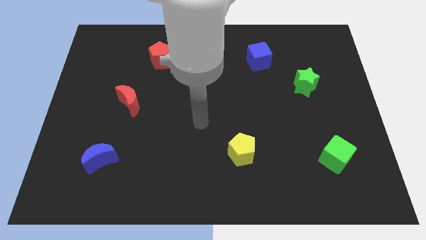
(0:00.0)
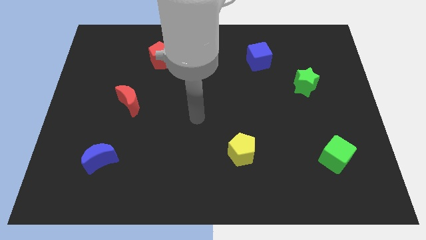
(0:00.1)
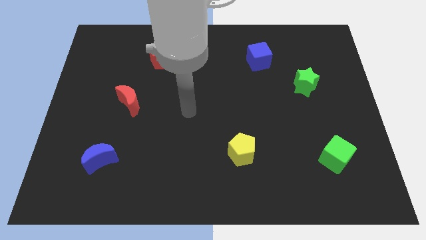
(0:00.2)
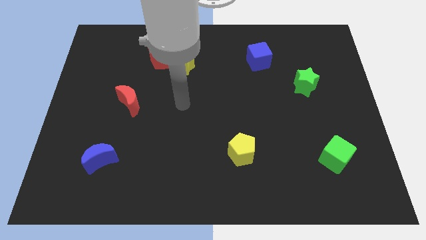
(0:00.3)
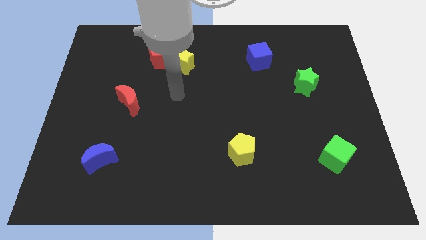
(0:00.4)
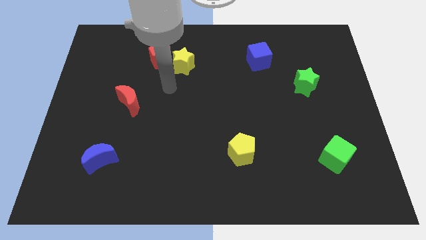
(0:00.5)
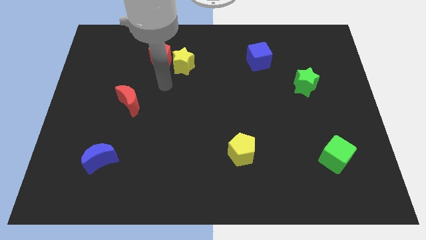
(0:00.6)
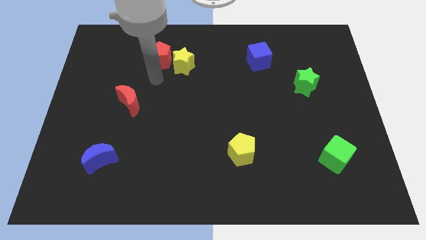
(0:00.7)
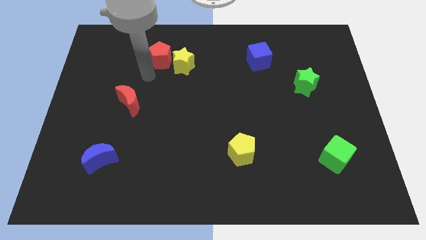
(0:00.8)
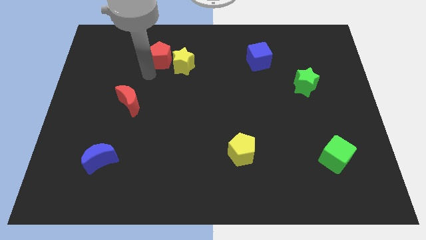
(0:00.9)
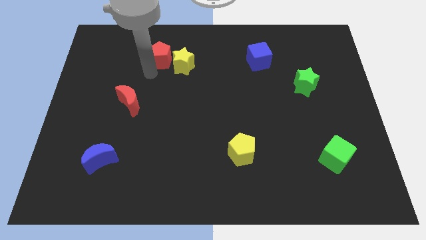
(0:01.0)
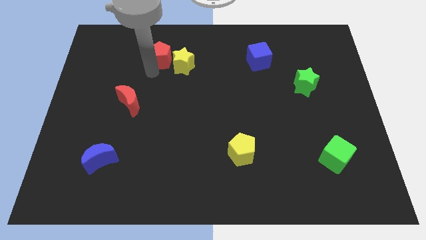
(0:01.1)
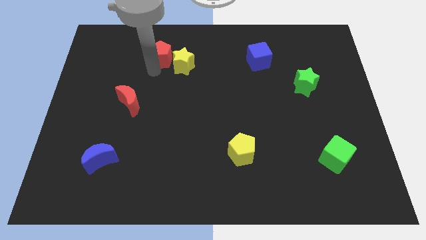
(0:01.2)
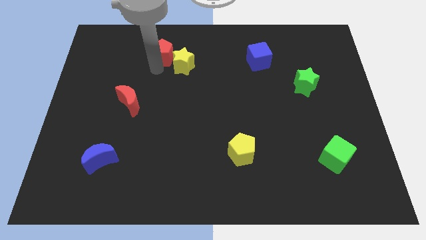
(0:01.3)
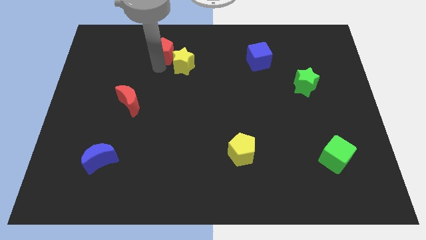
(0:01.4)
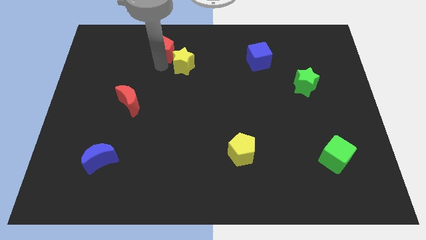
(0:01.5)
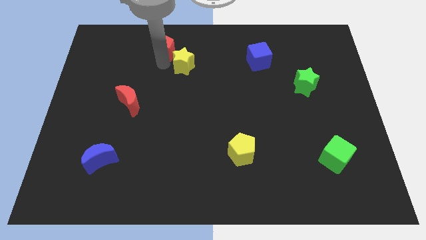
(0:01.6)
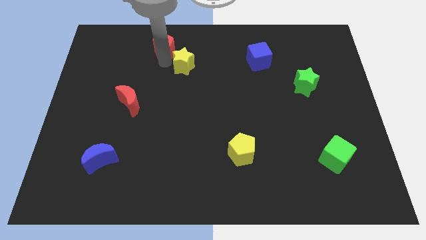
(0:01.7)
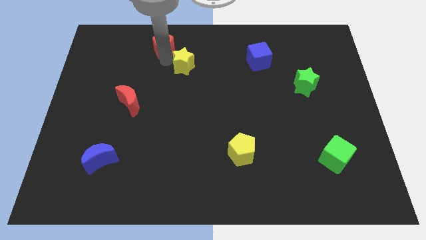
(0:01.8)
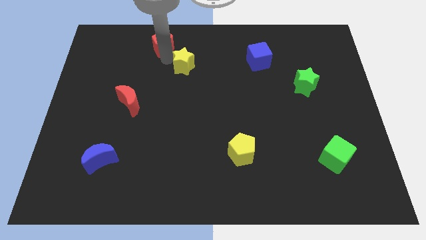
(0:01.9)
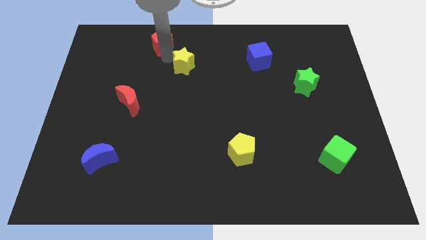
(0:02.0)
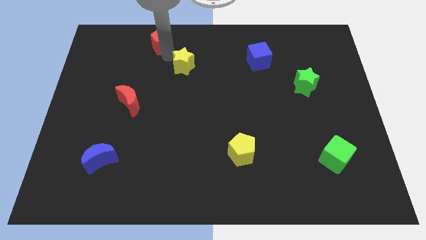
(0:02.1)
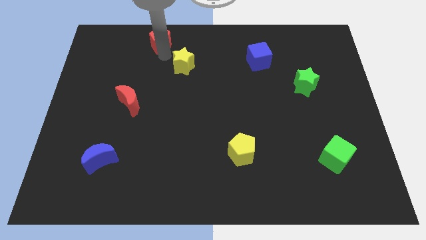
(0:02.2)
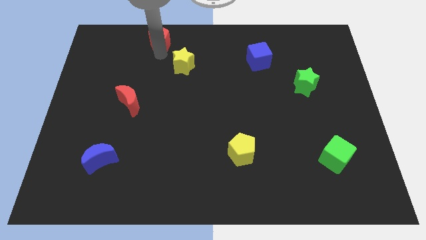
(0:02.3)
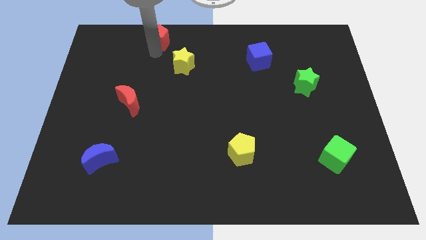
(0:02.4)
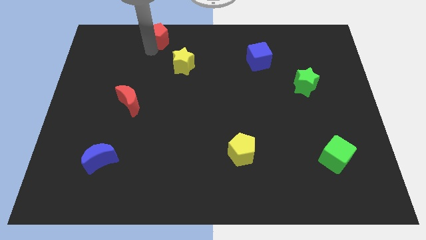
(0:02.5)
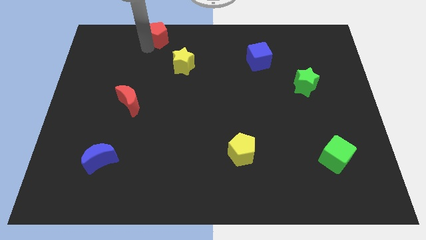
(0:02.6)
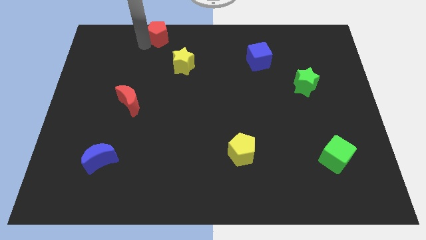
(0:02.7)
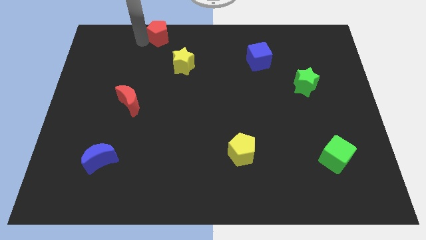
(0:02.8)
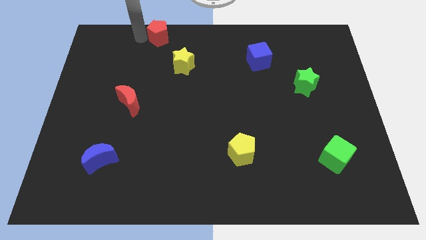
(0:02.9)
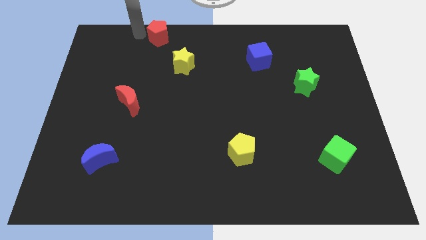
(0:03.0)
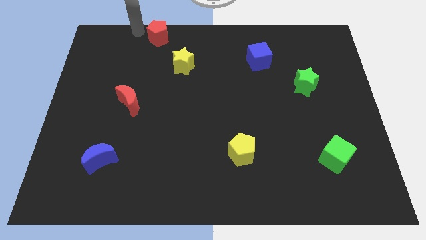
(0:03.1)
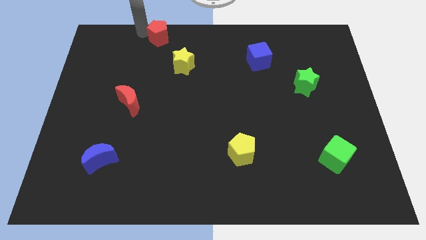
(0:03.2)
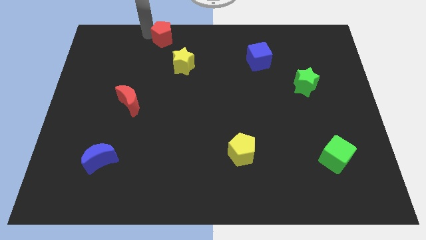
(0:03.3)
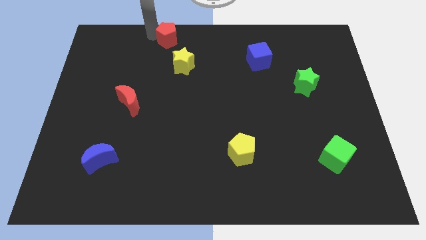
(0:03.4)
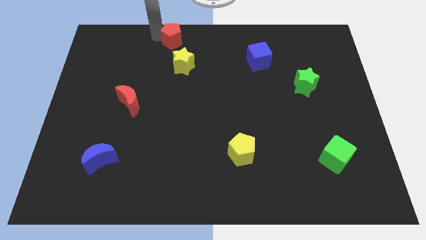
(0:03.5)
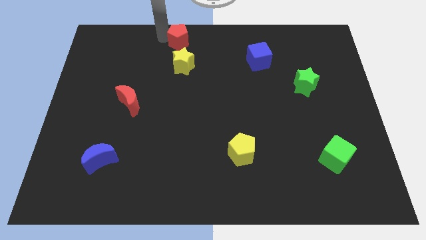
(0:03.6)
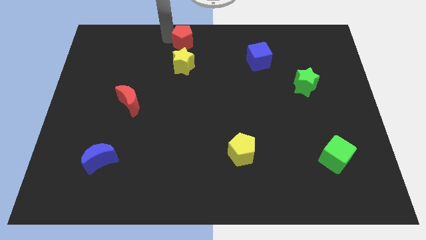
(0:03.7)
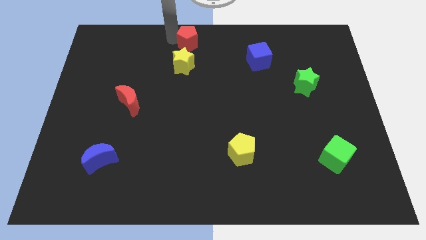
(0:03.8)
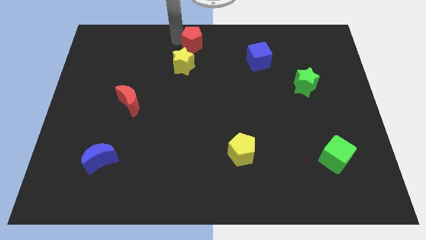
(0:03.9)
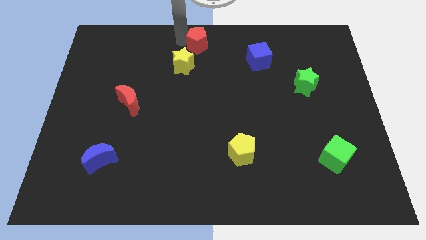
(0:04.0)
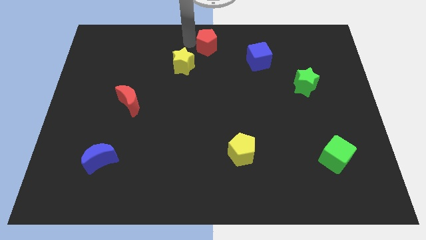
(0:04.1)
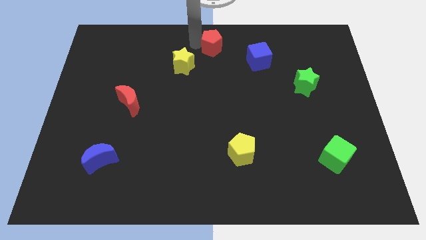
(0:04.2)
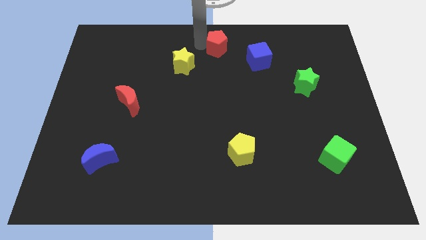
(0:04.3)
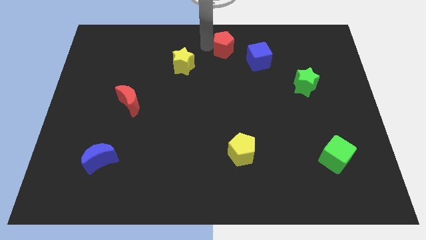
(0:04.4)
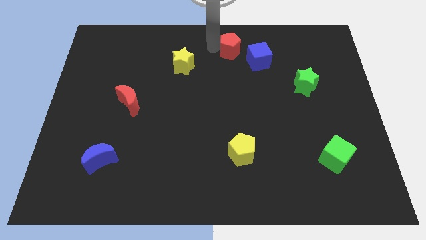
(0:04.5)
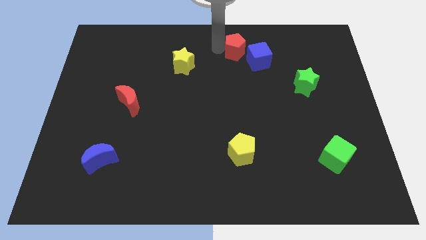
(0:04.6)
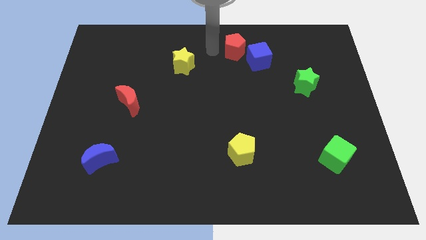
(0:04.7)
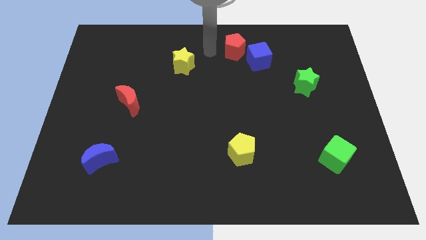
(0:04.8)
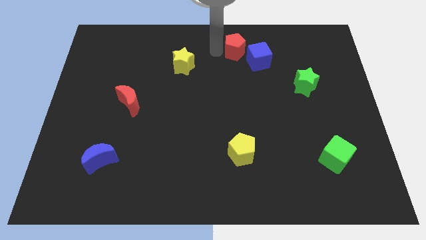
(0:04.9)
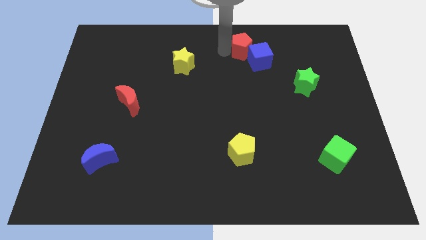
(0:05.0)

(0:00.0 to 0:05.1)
push the red pentagon right

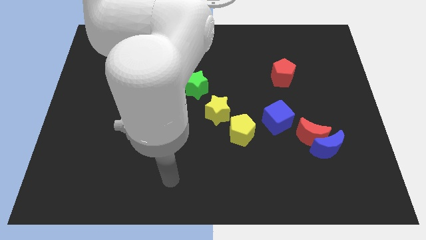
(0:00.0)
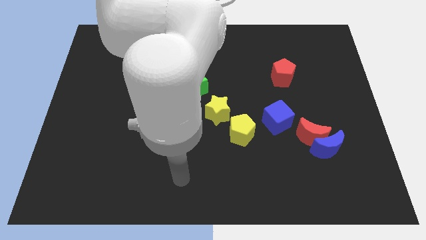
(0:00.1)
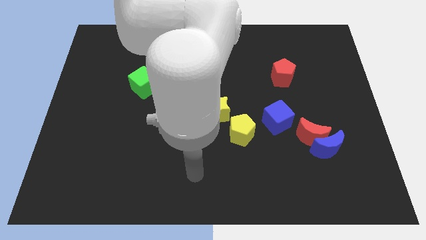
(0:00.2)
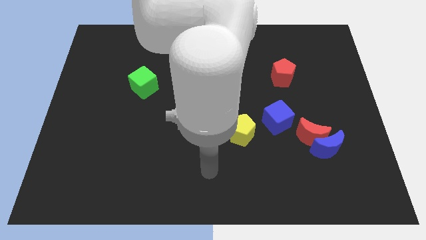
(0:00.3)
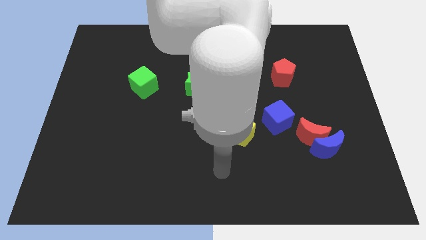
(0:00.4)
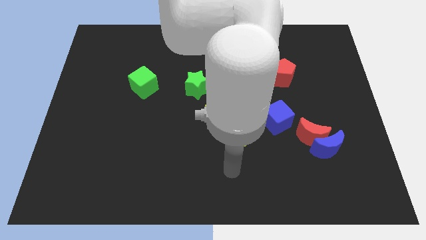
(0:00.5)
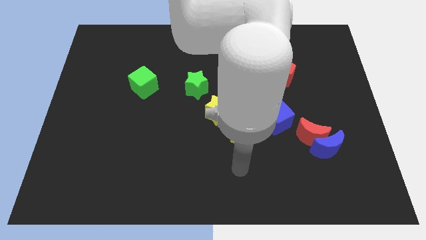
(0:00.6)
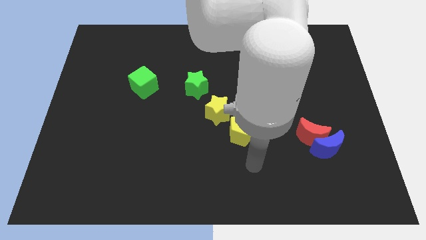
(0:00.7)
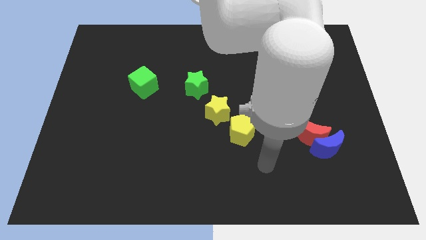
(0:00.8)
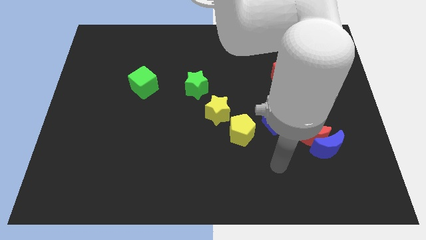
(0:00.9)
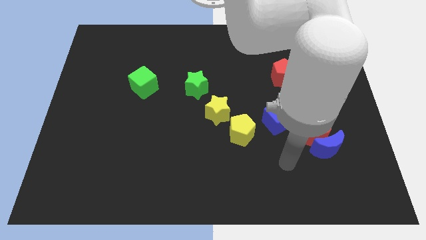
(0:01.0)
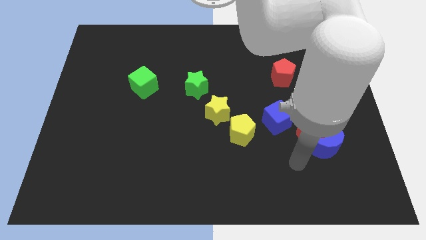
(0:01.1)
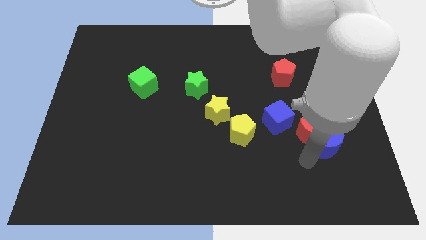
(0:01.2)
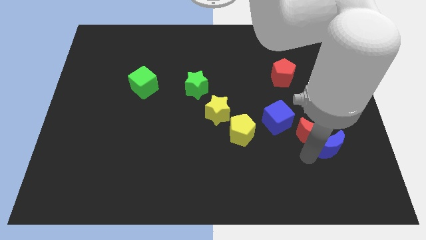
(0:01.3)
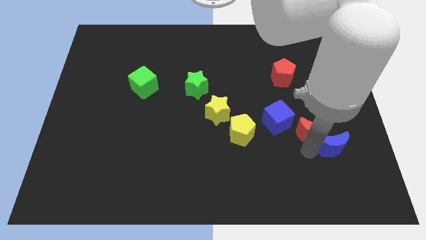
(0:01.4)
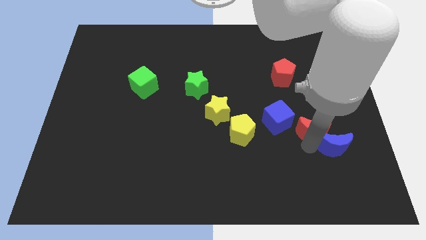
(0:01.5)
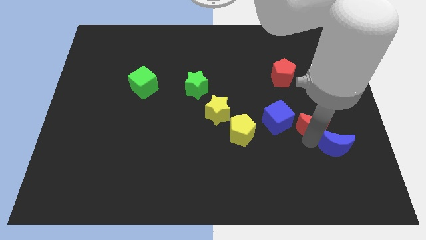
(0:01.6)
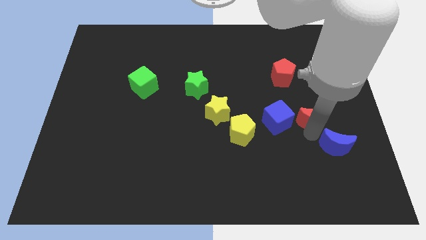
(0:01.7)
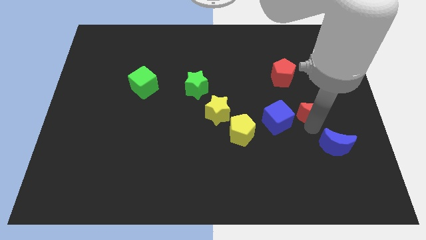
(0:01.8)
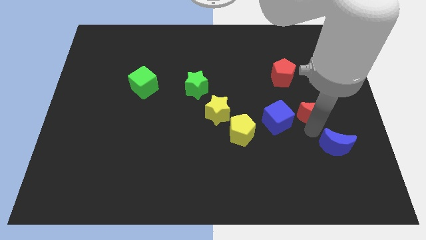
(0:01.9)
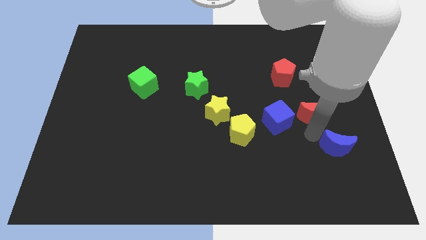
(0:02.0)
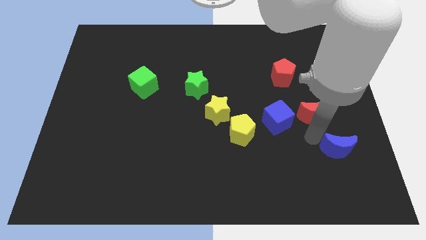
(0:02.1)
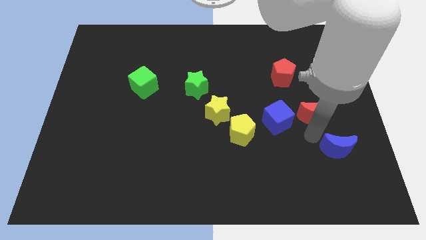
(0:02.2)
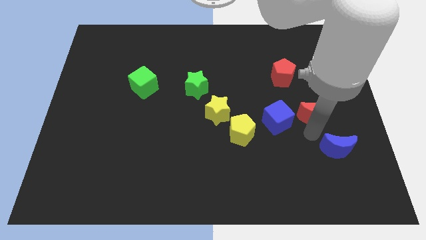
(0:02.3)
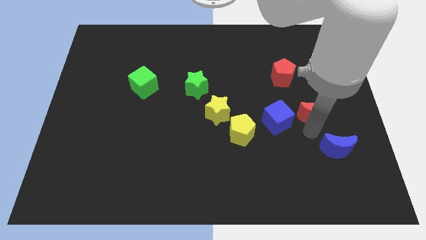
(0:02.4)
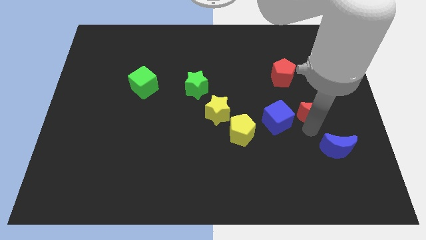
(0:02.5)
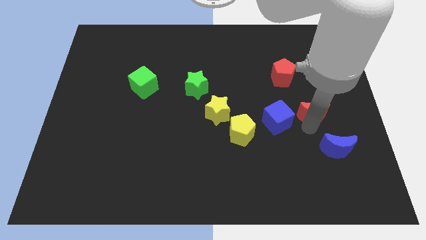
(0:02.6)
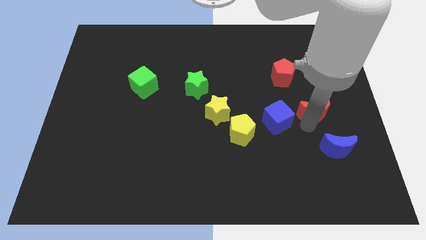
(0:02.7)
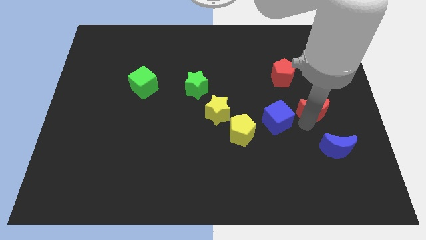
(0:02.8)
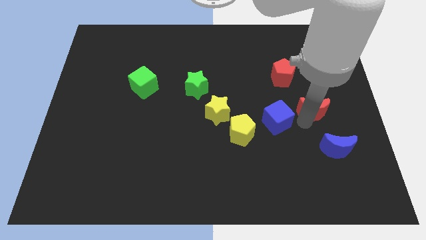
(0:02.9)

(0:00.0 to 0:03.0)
move the red moon a little bit up

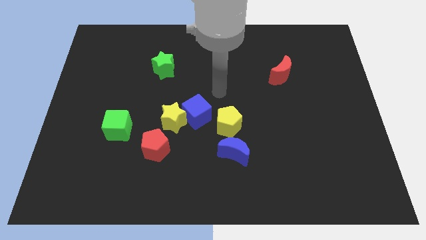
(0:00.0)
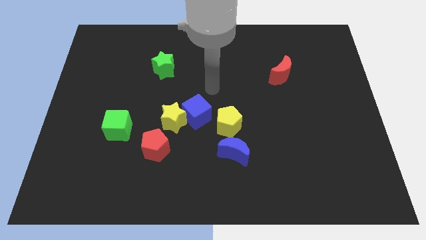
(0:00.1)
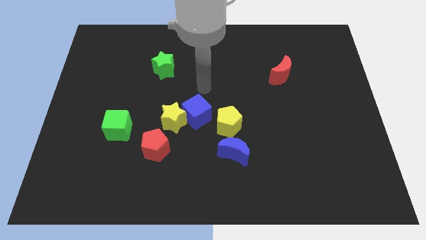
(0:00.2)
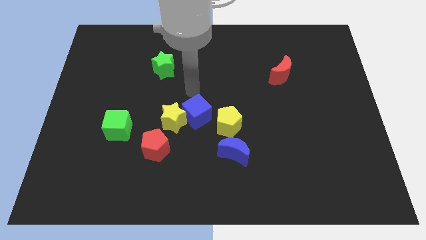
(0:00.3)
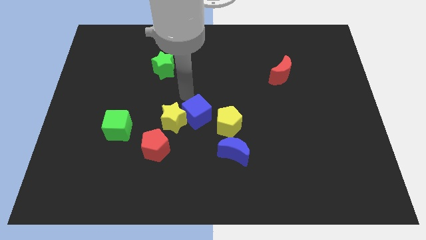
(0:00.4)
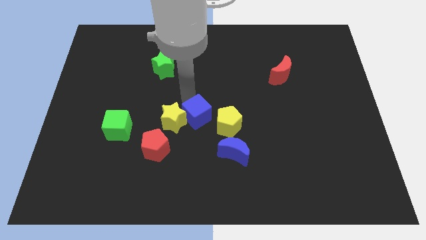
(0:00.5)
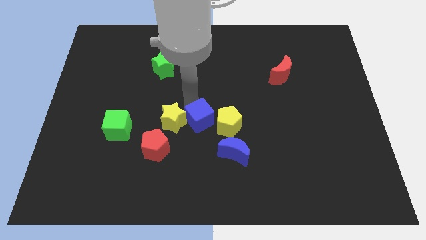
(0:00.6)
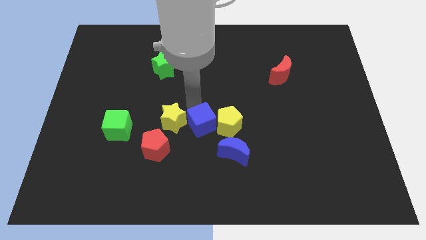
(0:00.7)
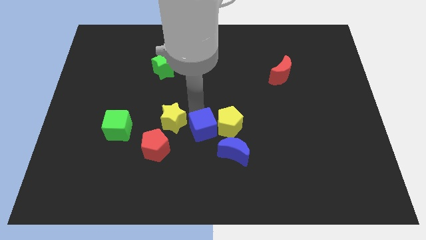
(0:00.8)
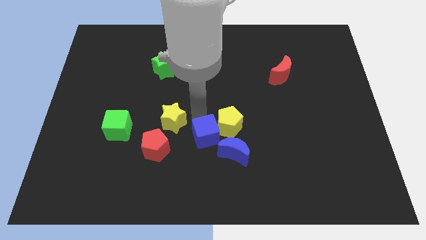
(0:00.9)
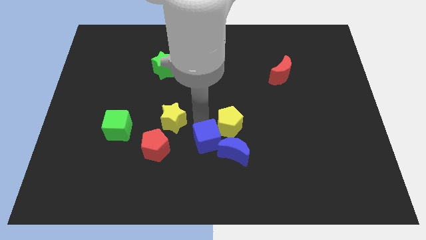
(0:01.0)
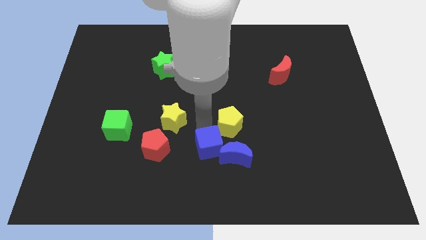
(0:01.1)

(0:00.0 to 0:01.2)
push the blue cube a little bit downwards and then to the right
